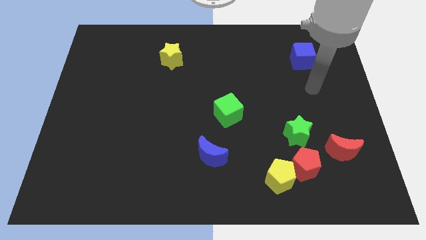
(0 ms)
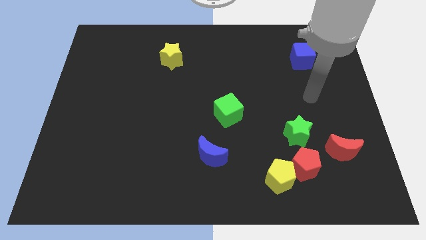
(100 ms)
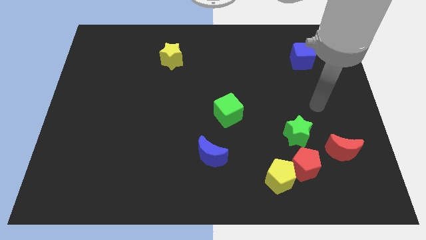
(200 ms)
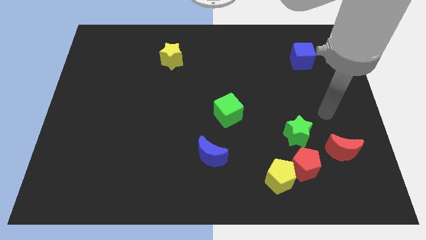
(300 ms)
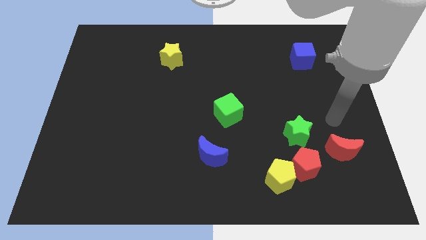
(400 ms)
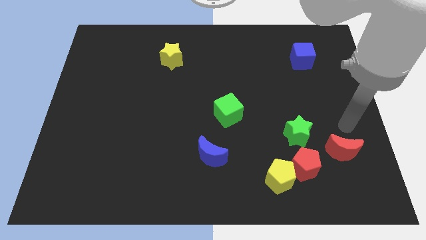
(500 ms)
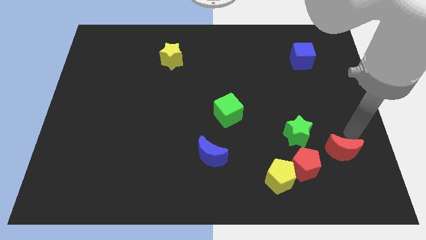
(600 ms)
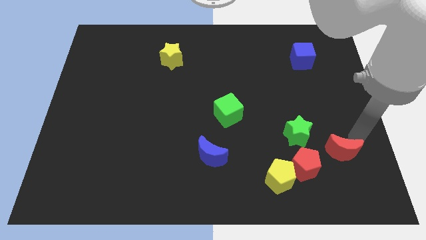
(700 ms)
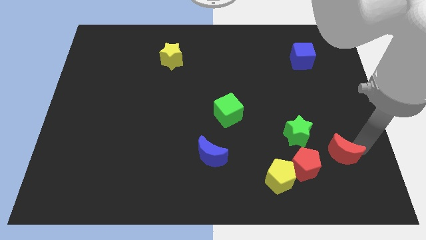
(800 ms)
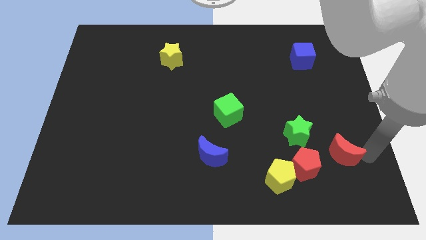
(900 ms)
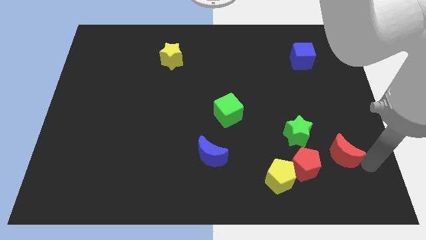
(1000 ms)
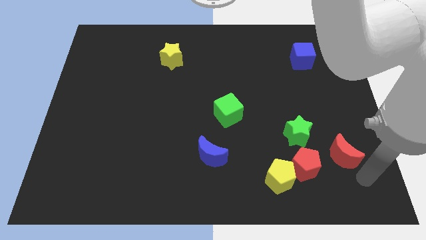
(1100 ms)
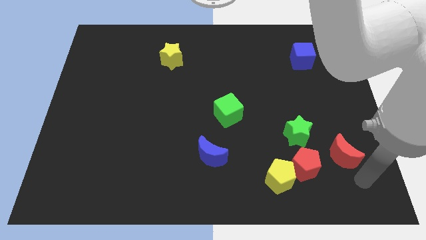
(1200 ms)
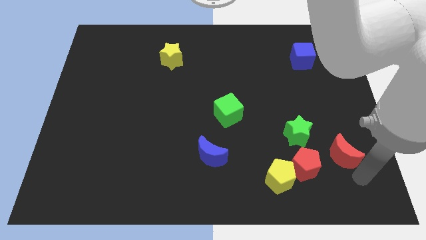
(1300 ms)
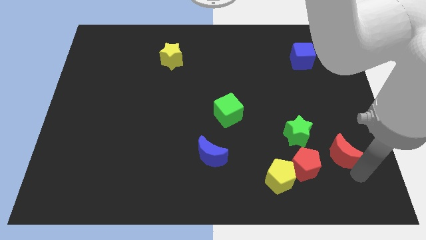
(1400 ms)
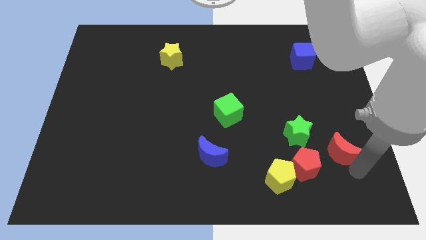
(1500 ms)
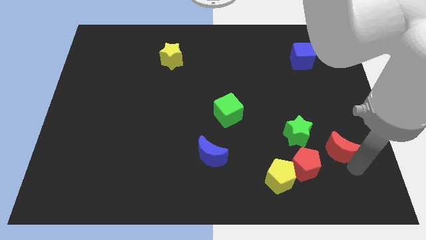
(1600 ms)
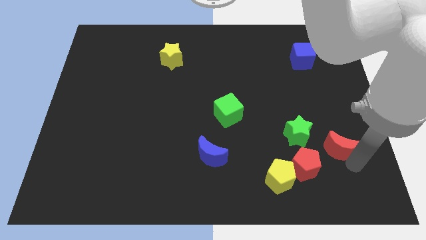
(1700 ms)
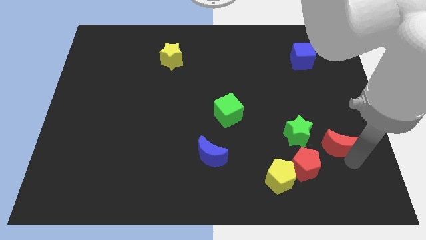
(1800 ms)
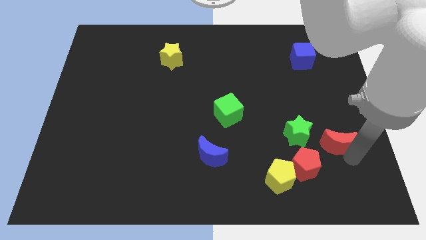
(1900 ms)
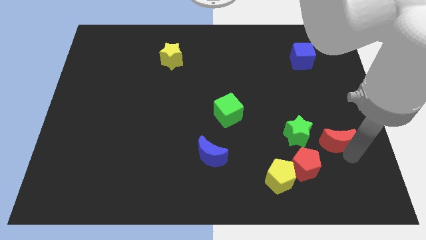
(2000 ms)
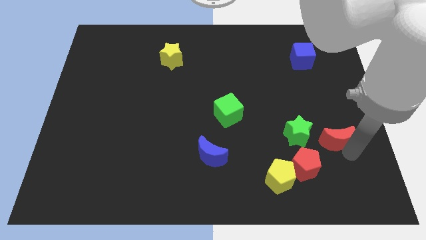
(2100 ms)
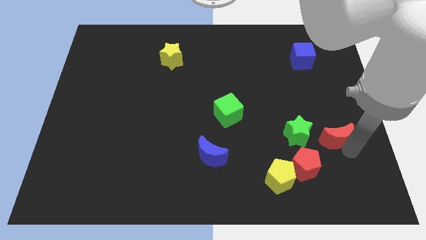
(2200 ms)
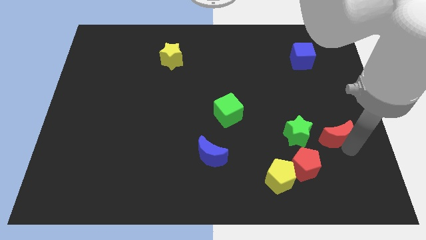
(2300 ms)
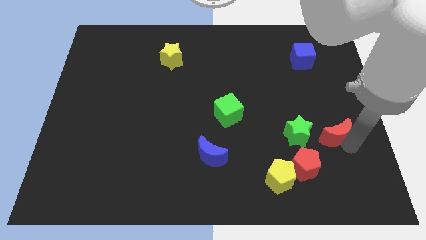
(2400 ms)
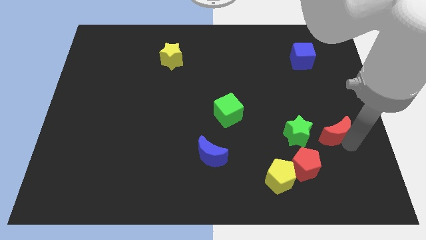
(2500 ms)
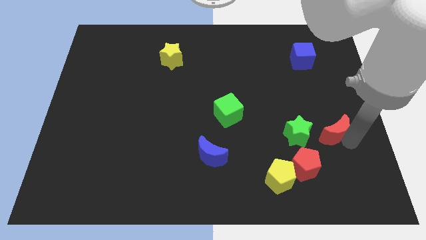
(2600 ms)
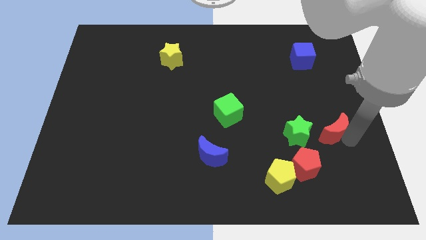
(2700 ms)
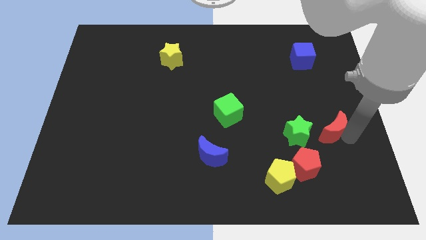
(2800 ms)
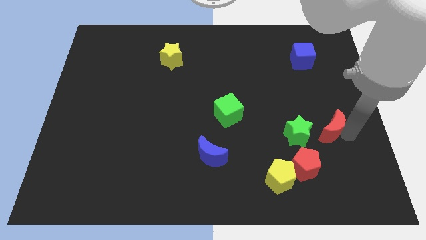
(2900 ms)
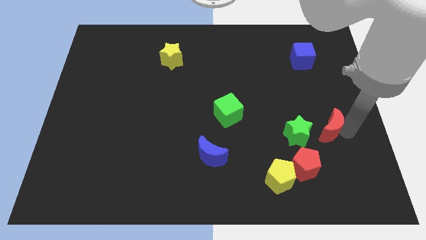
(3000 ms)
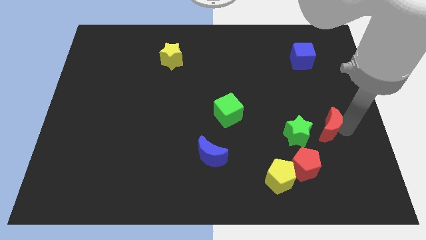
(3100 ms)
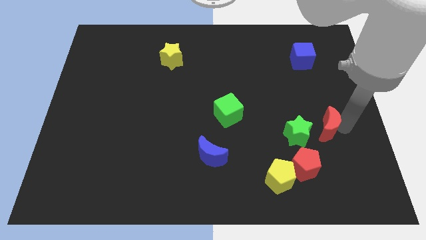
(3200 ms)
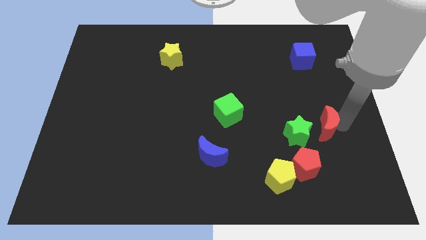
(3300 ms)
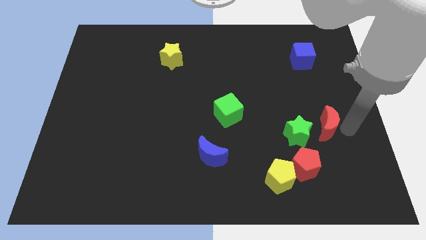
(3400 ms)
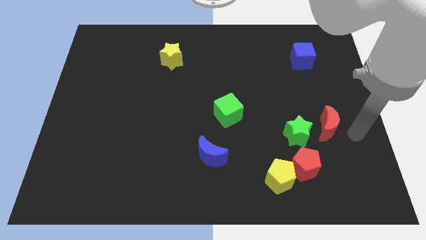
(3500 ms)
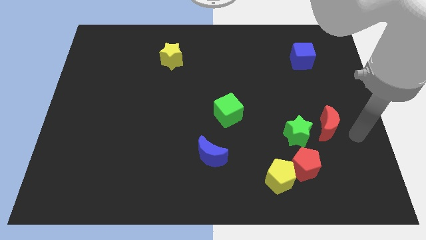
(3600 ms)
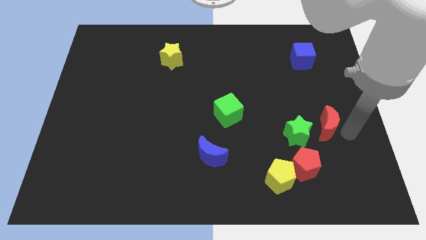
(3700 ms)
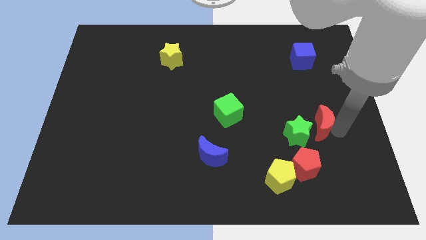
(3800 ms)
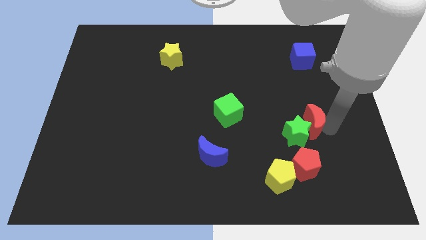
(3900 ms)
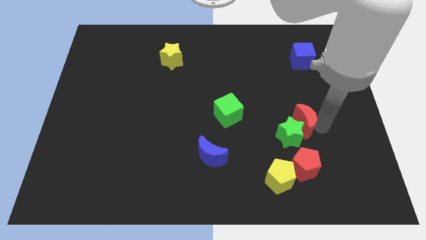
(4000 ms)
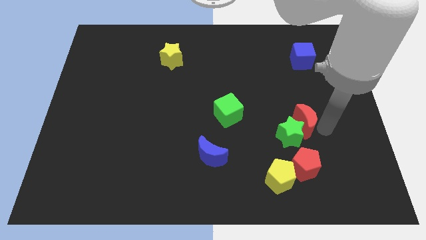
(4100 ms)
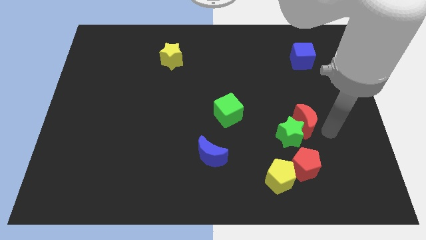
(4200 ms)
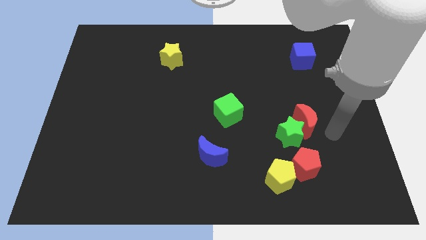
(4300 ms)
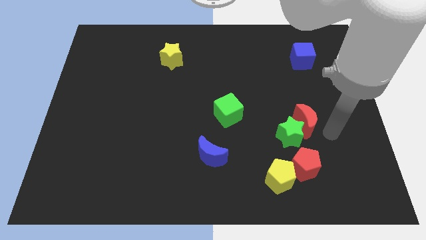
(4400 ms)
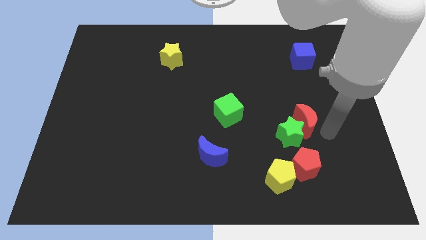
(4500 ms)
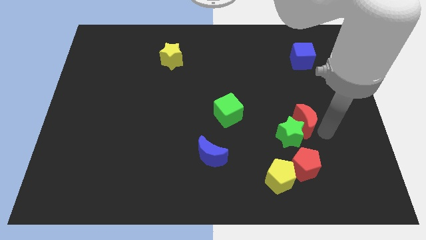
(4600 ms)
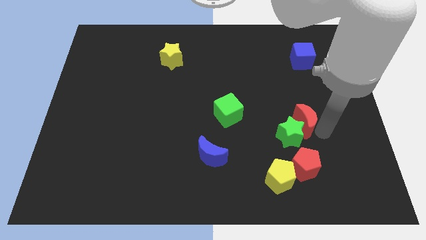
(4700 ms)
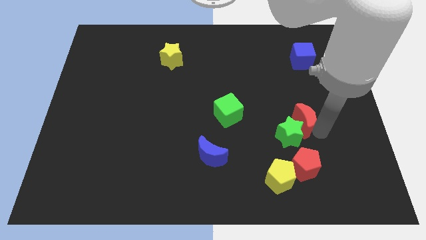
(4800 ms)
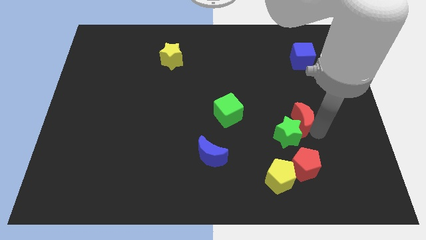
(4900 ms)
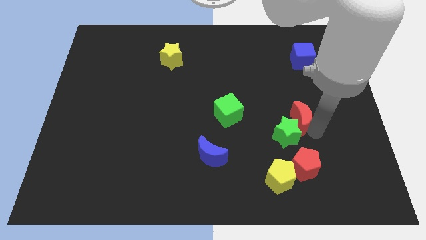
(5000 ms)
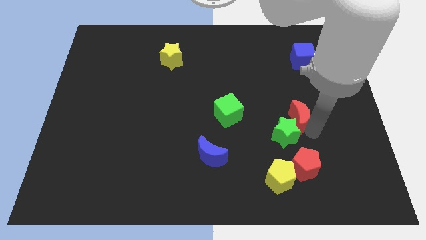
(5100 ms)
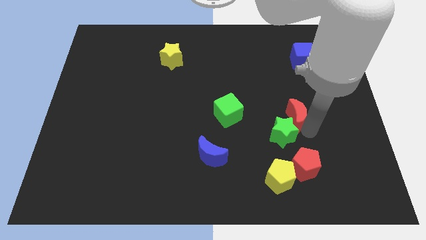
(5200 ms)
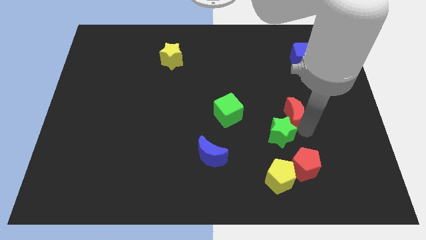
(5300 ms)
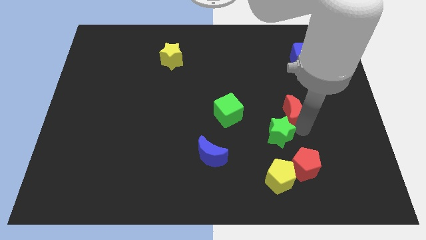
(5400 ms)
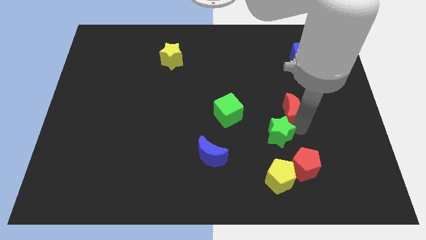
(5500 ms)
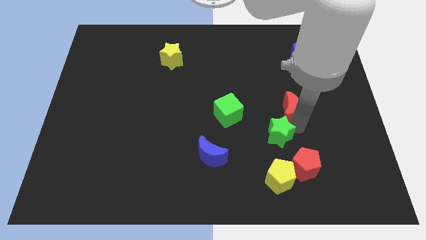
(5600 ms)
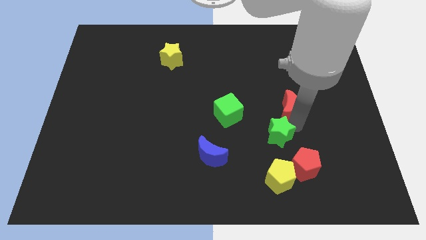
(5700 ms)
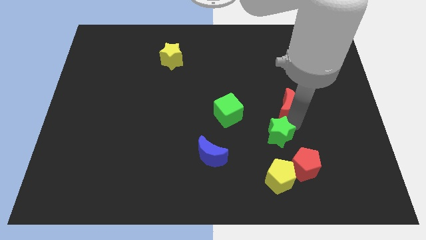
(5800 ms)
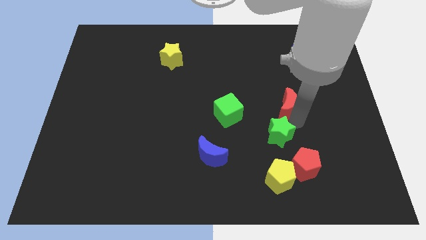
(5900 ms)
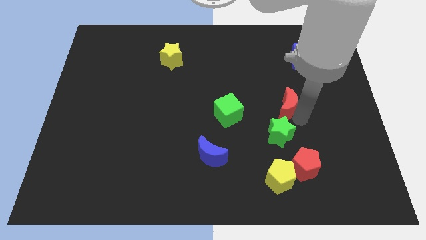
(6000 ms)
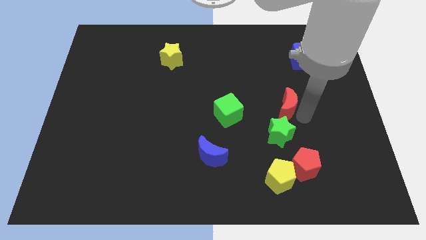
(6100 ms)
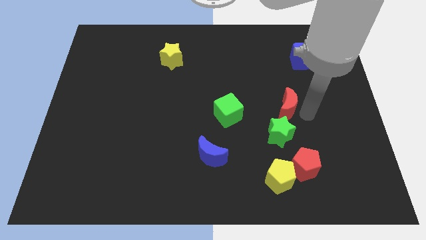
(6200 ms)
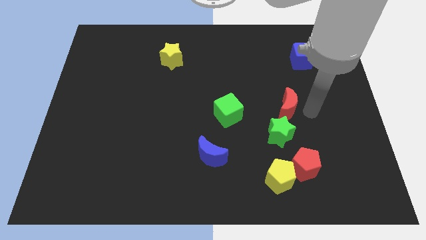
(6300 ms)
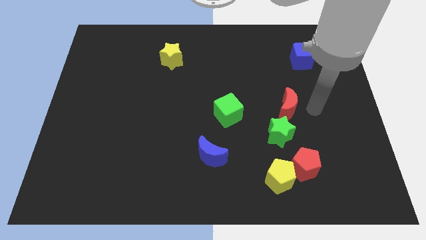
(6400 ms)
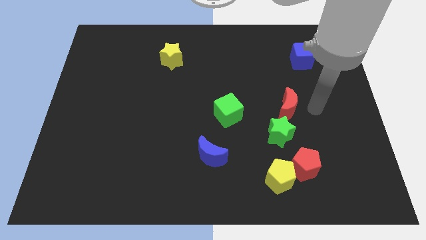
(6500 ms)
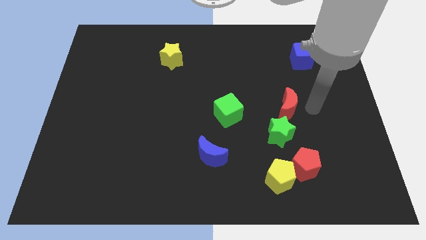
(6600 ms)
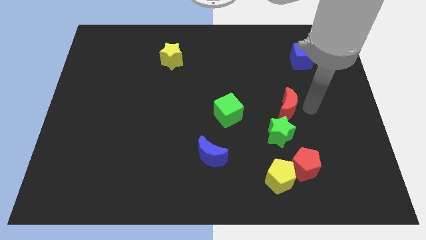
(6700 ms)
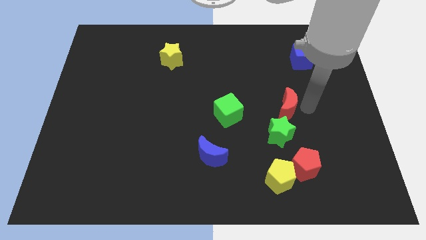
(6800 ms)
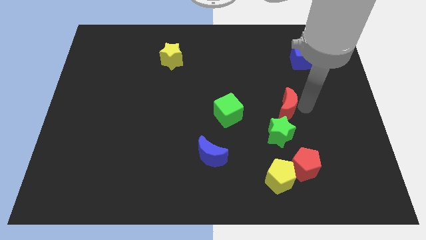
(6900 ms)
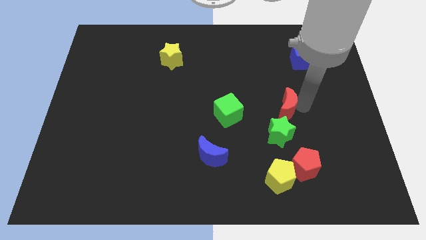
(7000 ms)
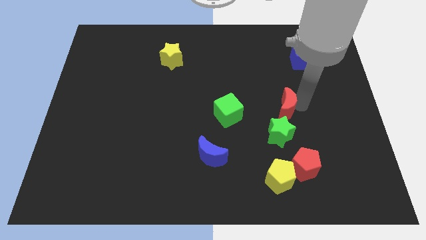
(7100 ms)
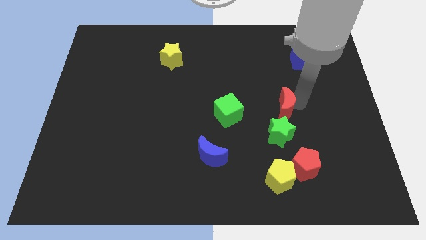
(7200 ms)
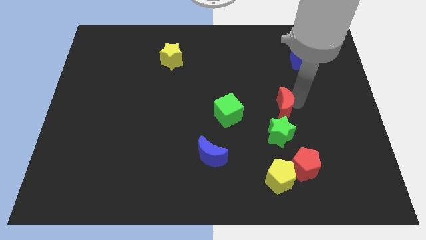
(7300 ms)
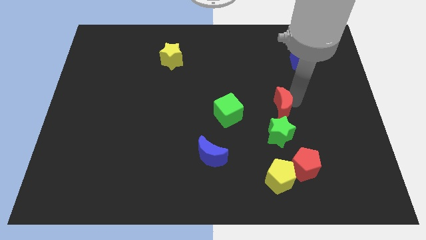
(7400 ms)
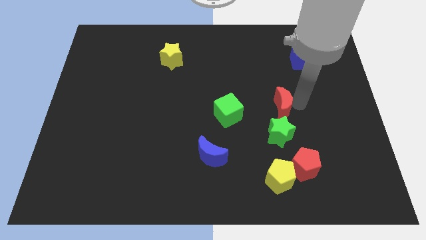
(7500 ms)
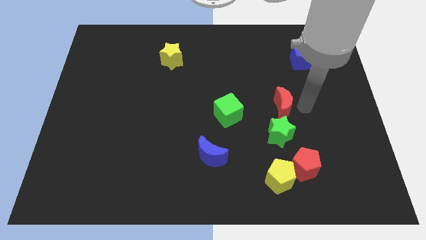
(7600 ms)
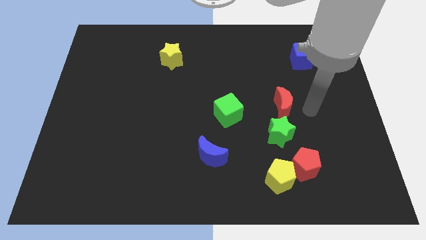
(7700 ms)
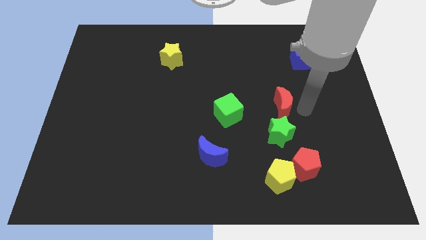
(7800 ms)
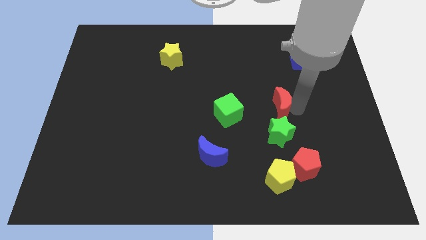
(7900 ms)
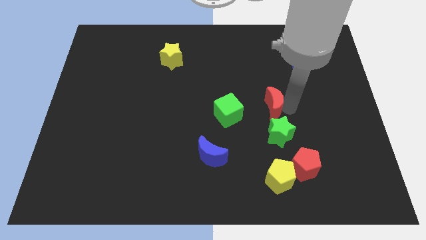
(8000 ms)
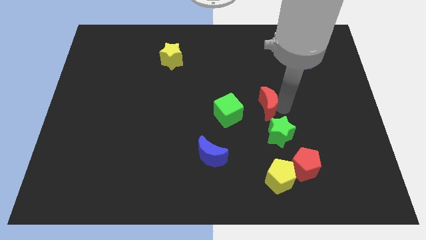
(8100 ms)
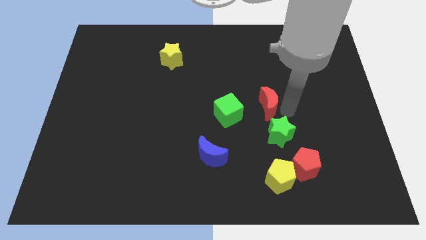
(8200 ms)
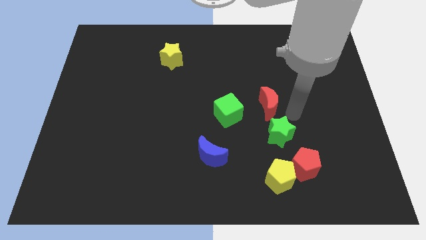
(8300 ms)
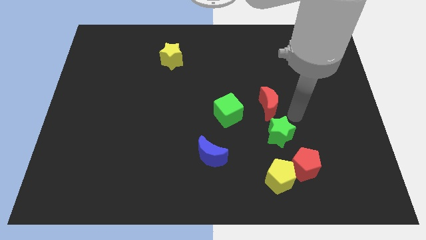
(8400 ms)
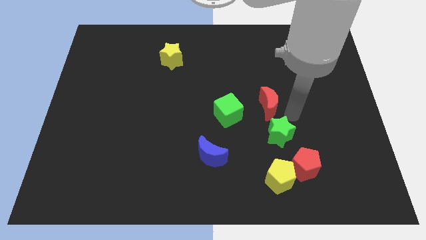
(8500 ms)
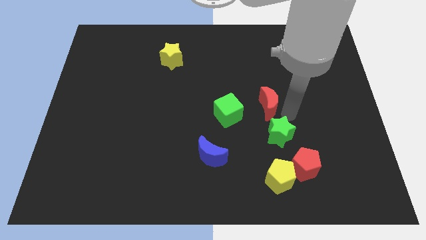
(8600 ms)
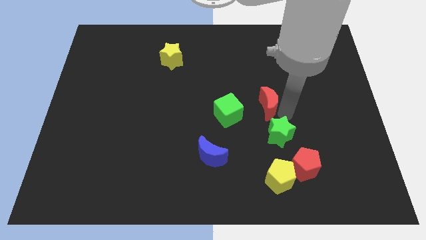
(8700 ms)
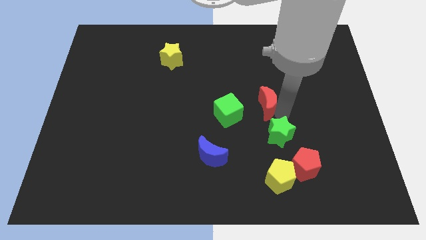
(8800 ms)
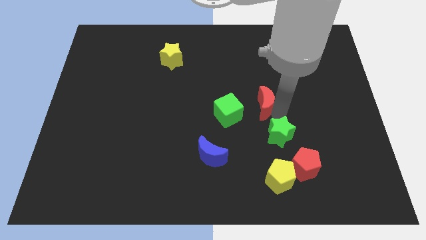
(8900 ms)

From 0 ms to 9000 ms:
put the red moon to the center
